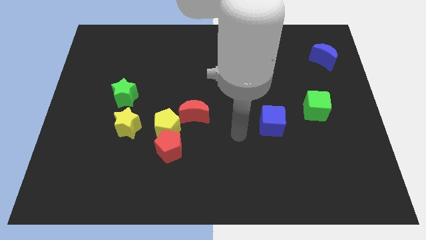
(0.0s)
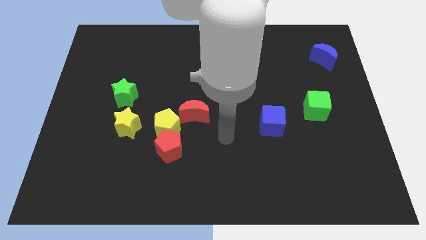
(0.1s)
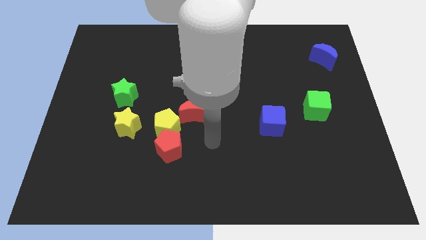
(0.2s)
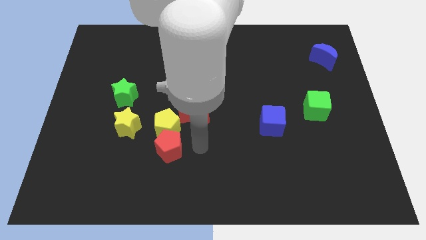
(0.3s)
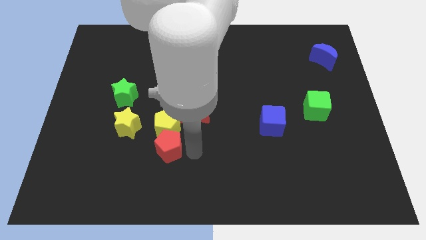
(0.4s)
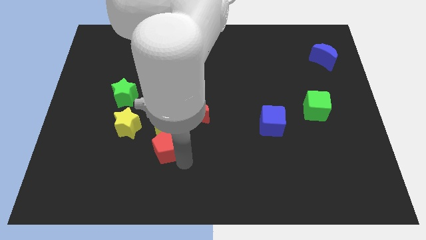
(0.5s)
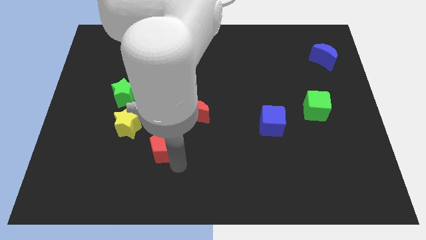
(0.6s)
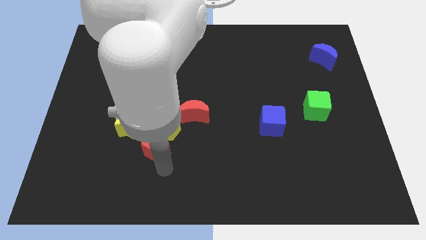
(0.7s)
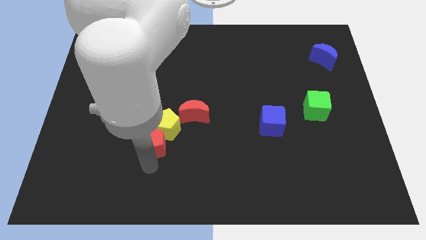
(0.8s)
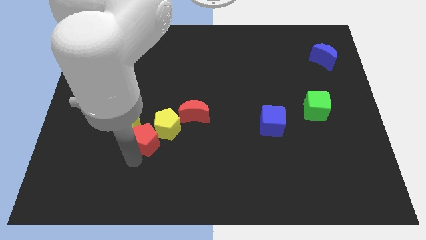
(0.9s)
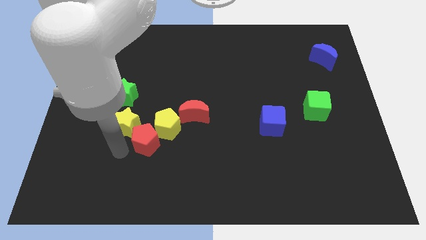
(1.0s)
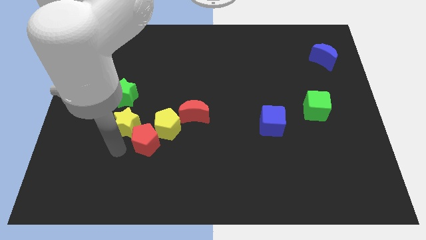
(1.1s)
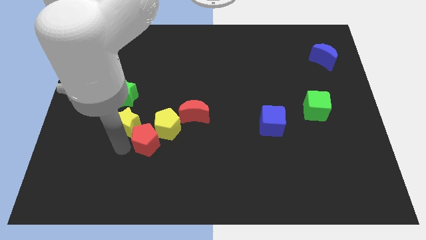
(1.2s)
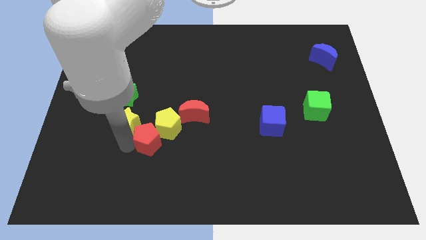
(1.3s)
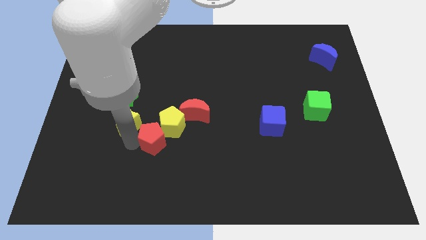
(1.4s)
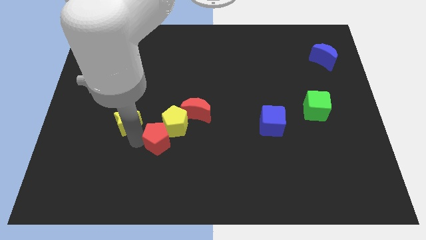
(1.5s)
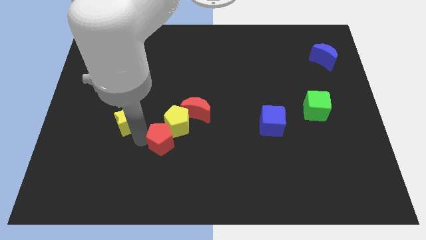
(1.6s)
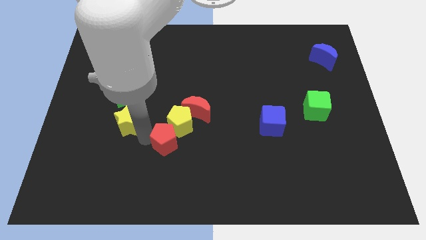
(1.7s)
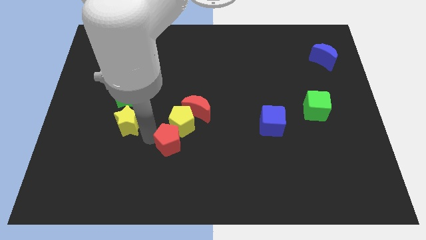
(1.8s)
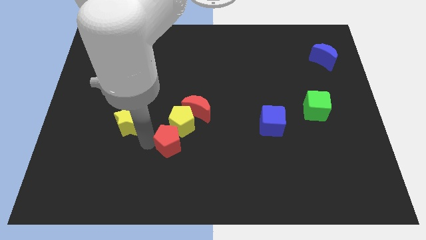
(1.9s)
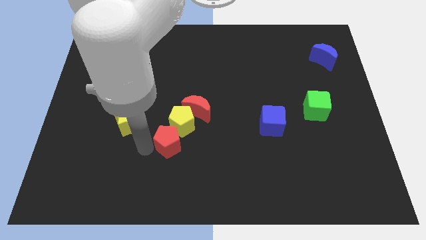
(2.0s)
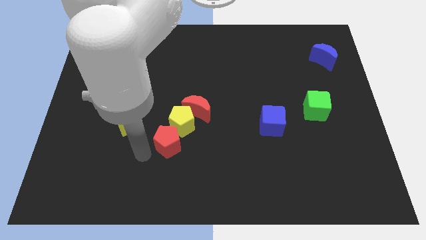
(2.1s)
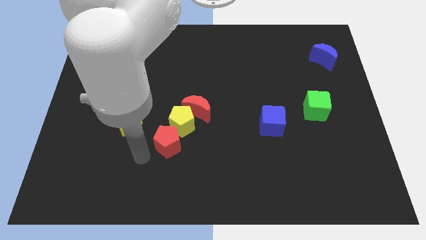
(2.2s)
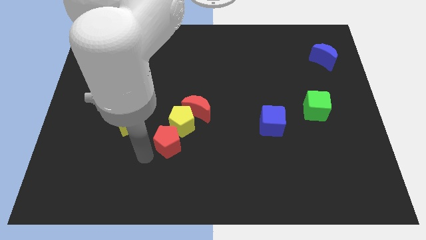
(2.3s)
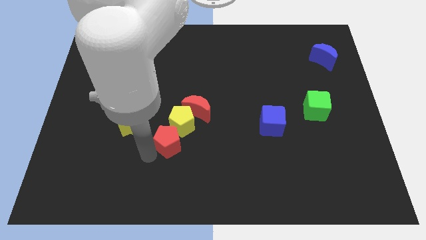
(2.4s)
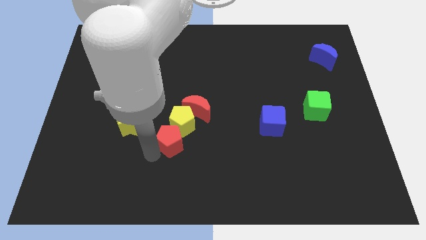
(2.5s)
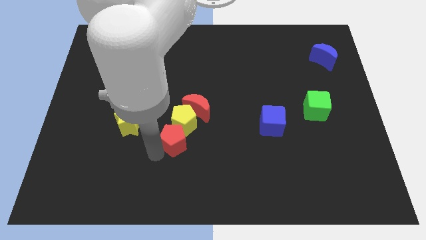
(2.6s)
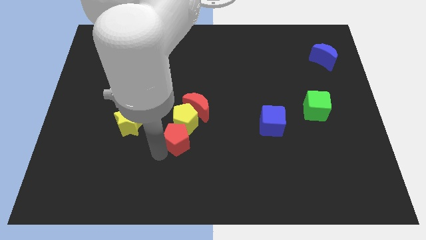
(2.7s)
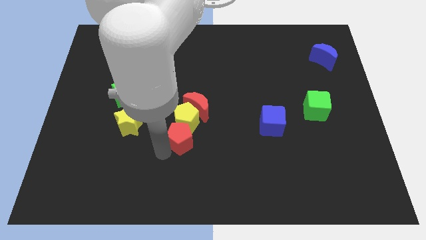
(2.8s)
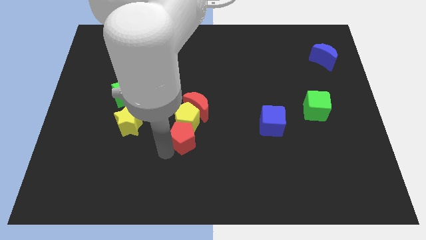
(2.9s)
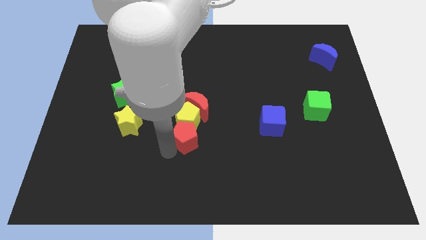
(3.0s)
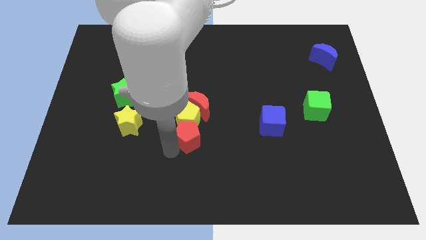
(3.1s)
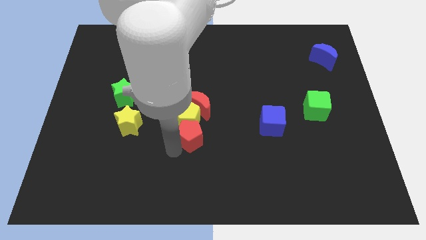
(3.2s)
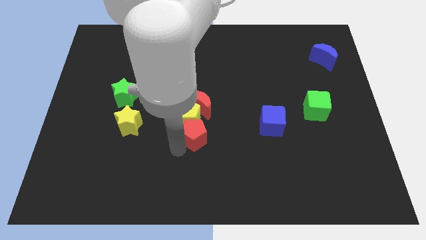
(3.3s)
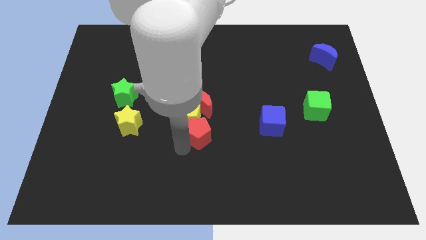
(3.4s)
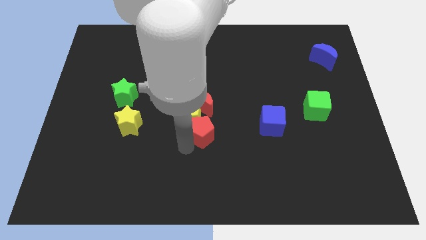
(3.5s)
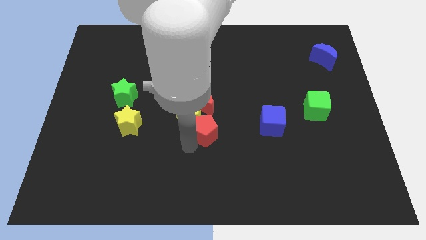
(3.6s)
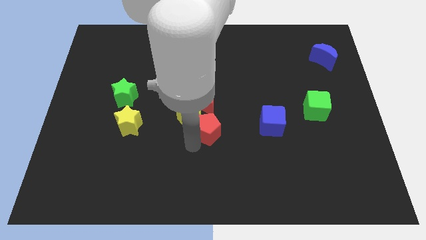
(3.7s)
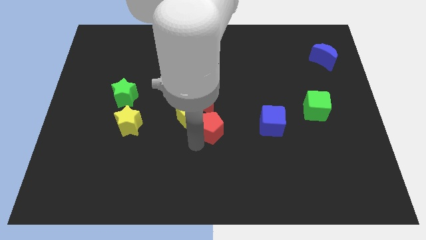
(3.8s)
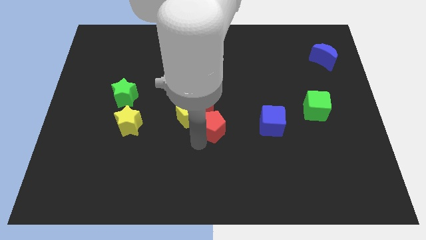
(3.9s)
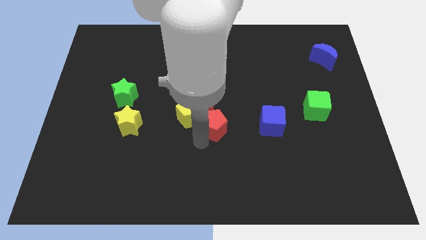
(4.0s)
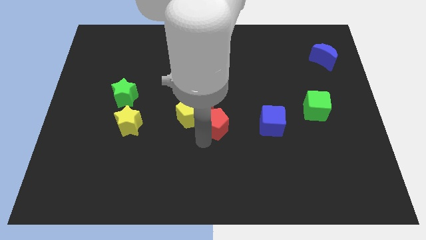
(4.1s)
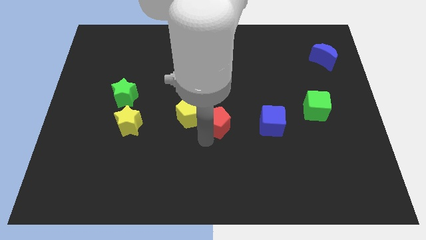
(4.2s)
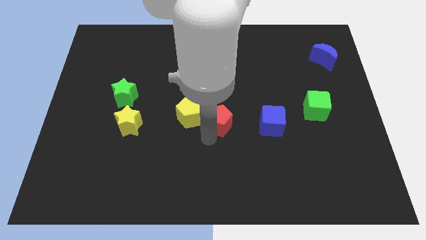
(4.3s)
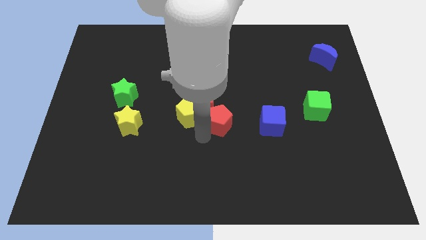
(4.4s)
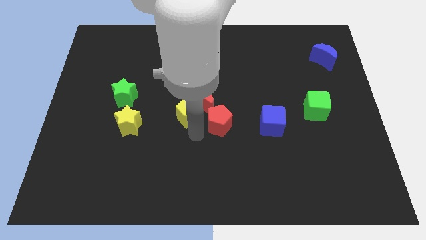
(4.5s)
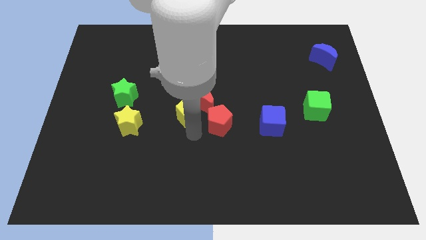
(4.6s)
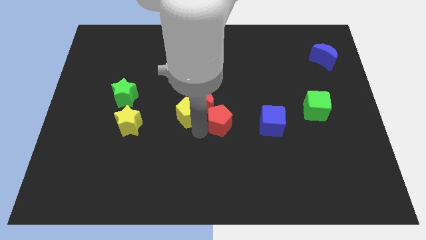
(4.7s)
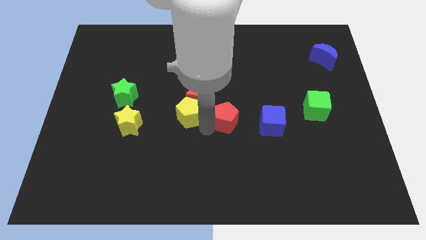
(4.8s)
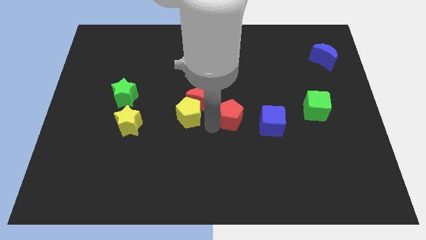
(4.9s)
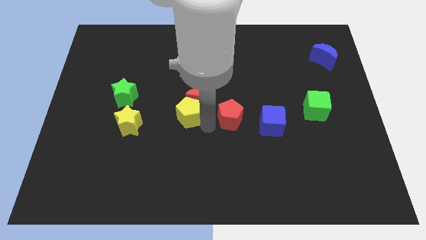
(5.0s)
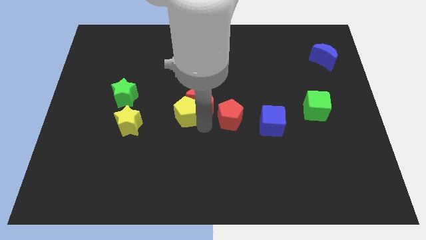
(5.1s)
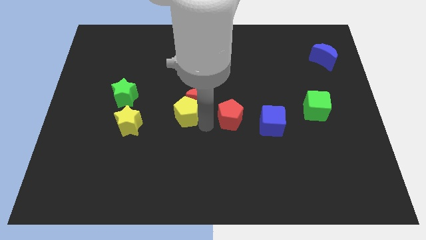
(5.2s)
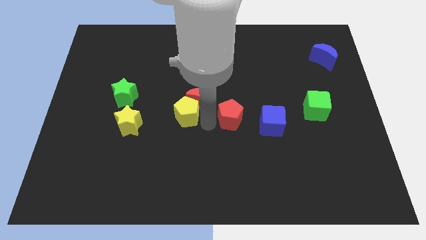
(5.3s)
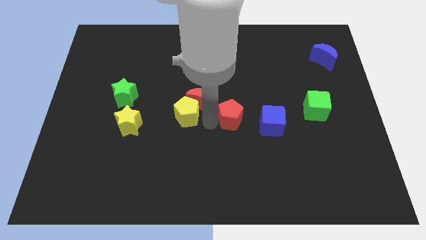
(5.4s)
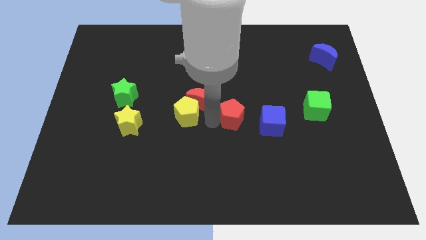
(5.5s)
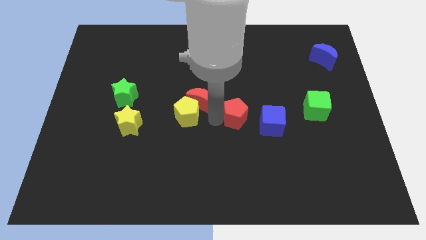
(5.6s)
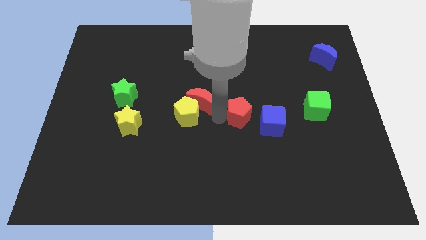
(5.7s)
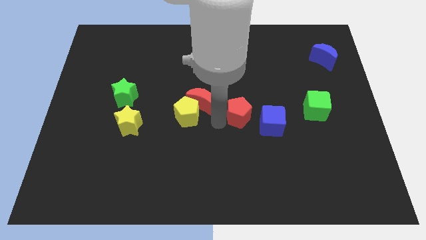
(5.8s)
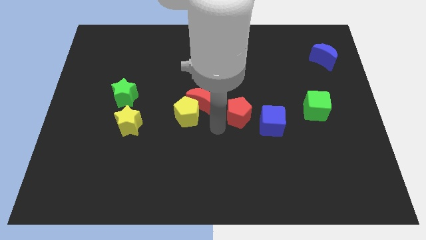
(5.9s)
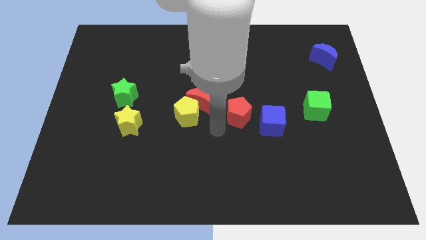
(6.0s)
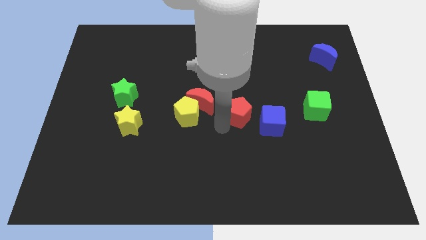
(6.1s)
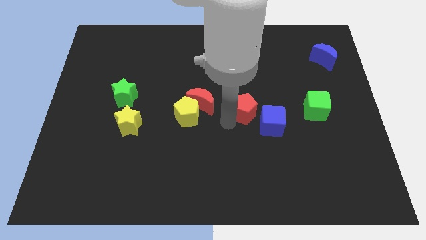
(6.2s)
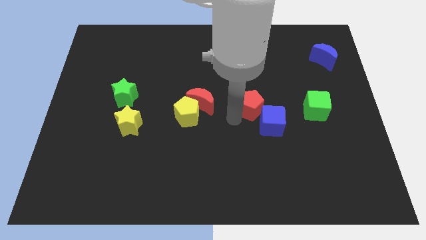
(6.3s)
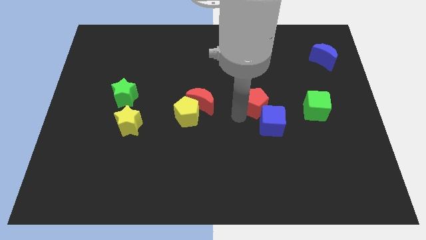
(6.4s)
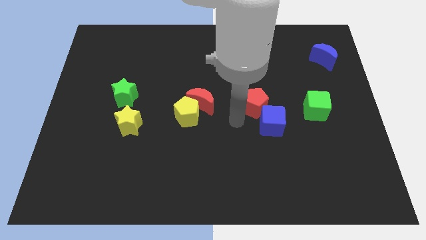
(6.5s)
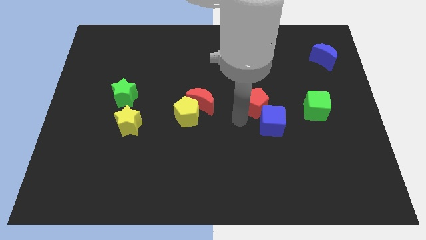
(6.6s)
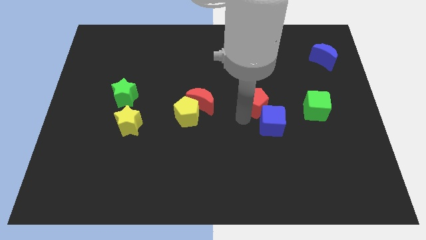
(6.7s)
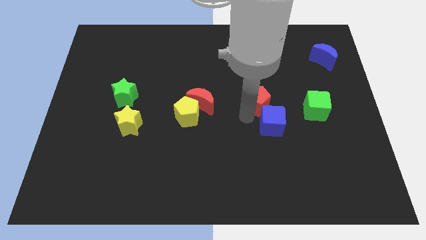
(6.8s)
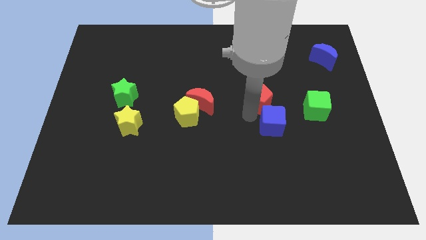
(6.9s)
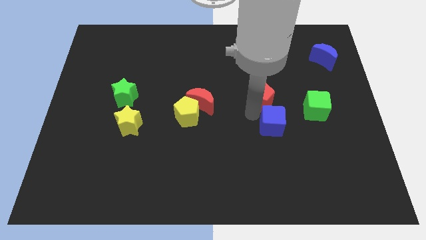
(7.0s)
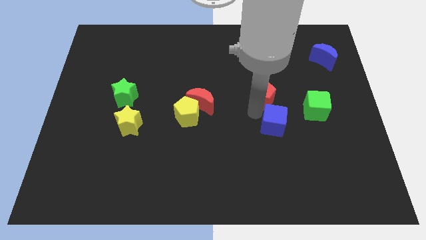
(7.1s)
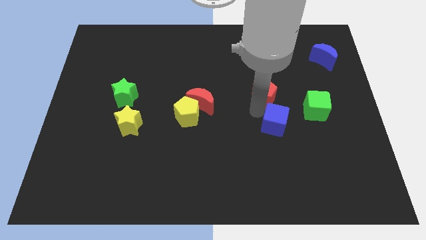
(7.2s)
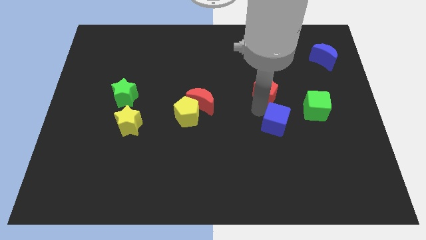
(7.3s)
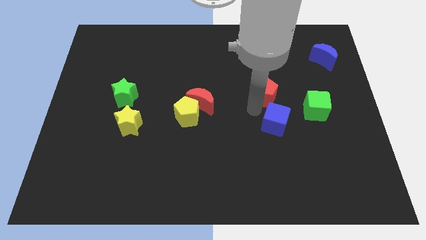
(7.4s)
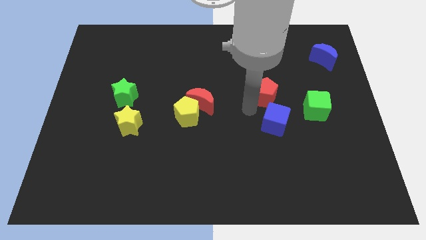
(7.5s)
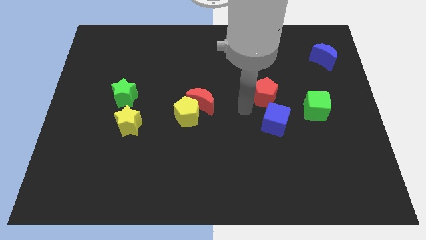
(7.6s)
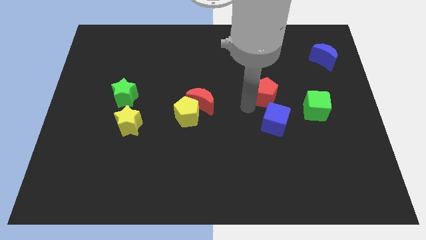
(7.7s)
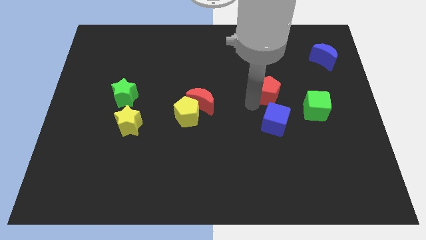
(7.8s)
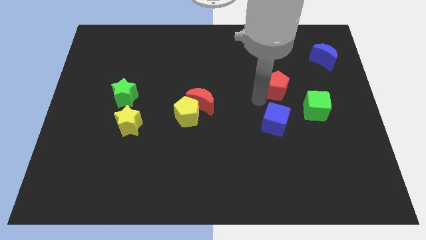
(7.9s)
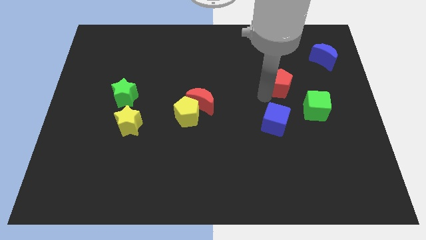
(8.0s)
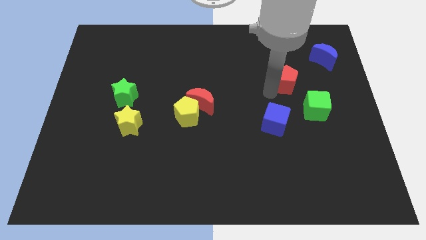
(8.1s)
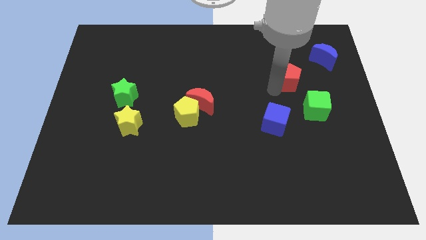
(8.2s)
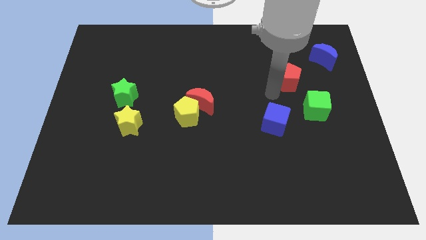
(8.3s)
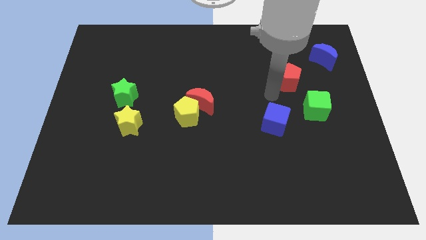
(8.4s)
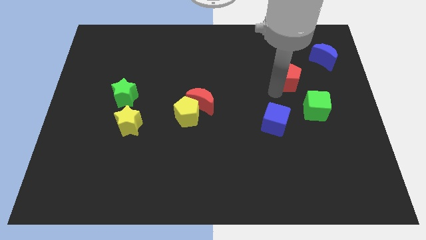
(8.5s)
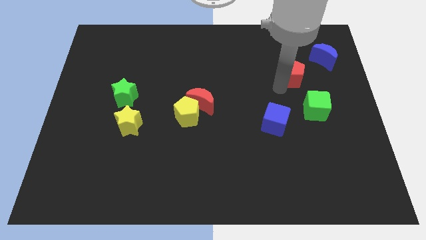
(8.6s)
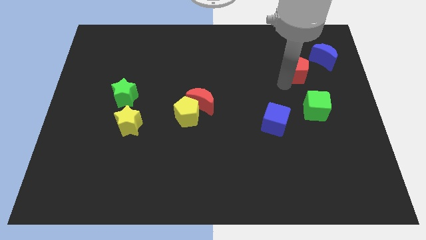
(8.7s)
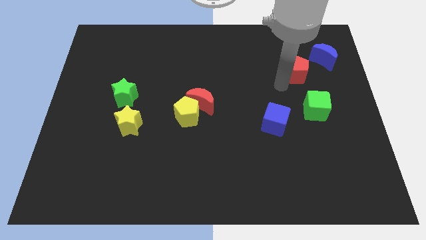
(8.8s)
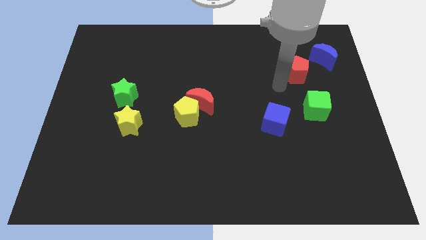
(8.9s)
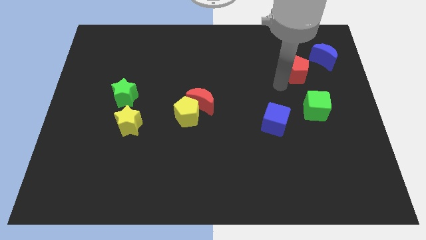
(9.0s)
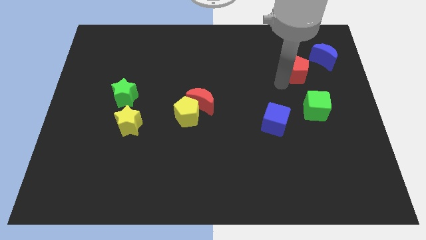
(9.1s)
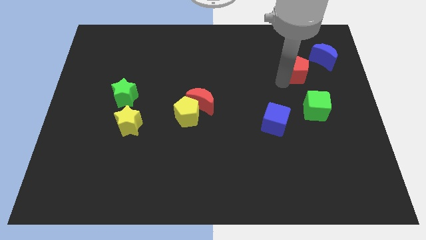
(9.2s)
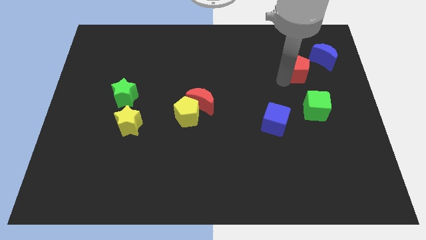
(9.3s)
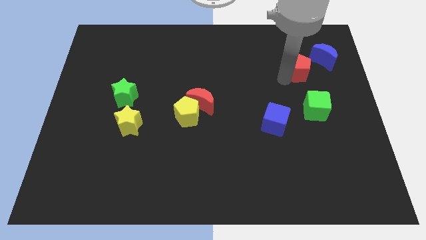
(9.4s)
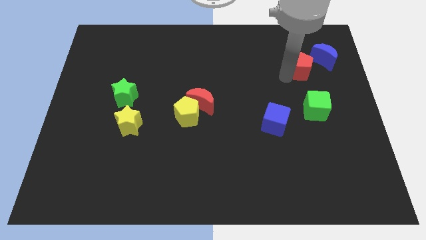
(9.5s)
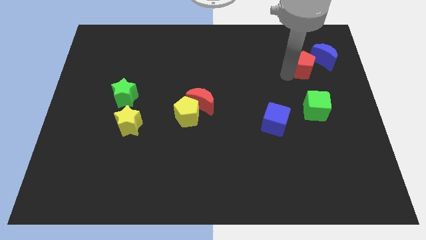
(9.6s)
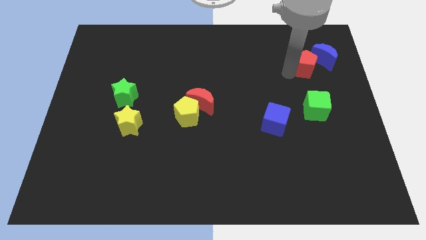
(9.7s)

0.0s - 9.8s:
move the red pentagon close to the blue moon
